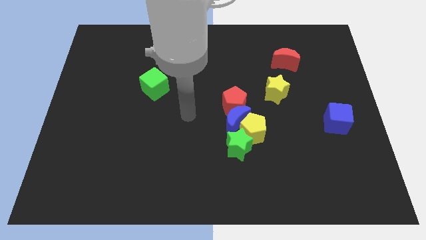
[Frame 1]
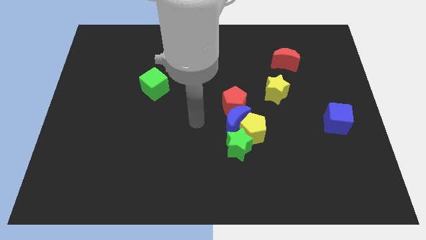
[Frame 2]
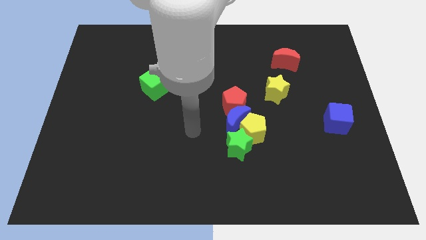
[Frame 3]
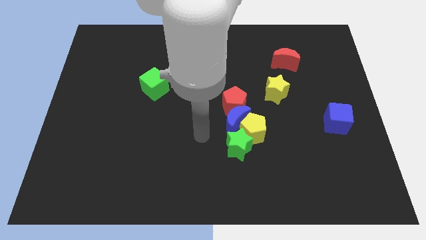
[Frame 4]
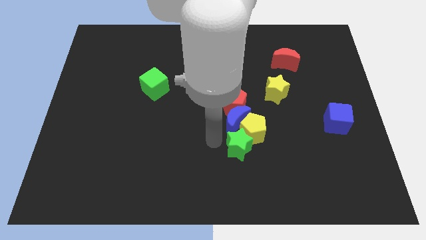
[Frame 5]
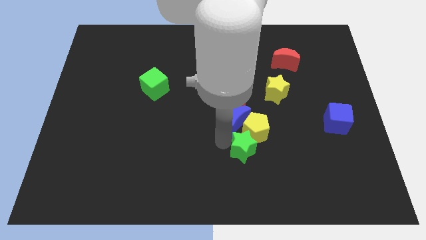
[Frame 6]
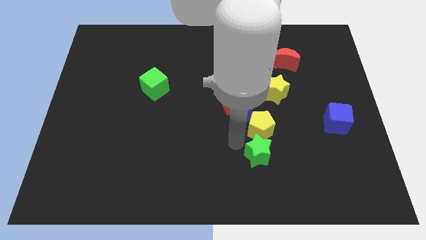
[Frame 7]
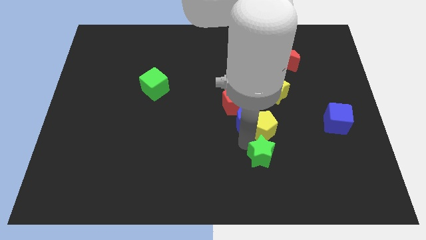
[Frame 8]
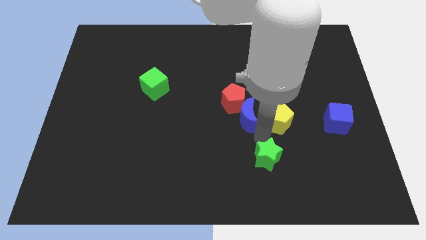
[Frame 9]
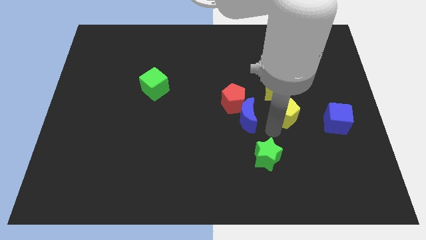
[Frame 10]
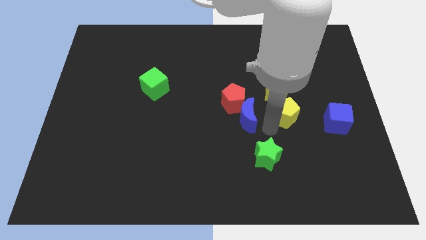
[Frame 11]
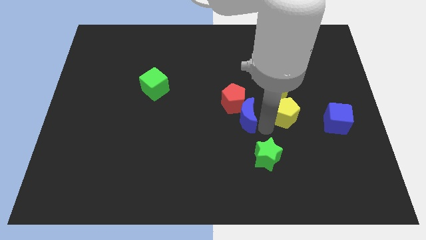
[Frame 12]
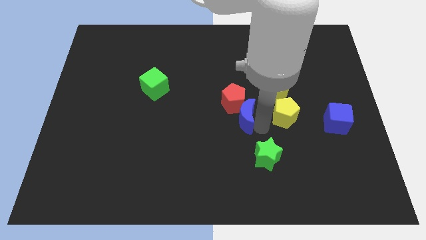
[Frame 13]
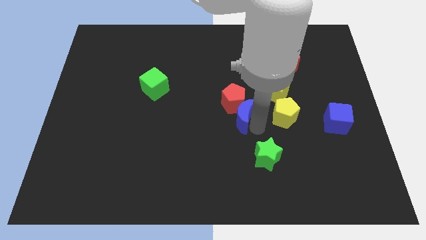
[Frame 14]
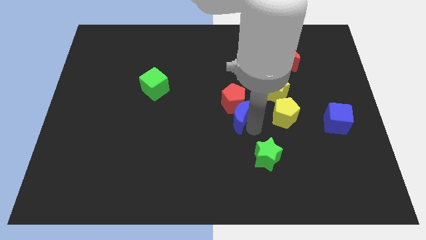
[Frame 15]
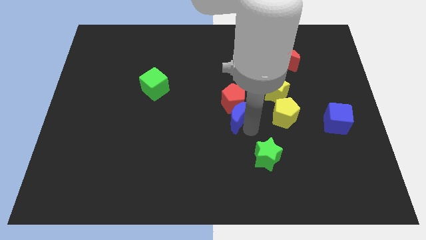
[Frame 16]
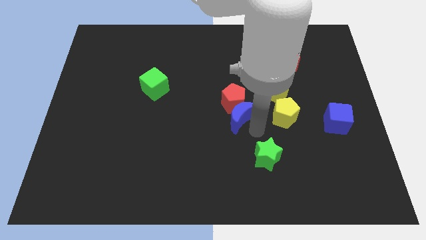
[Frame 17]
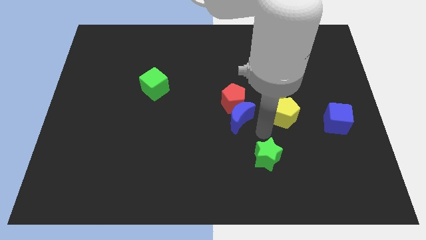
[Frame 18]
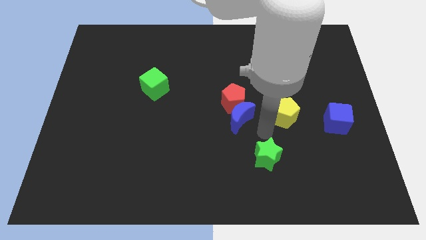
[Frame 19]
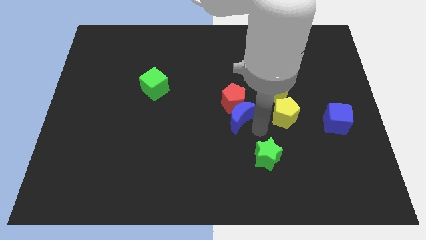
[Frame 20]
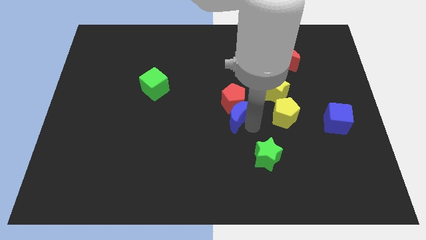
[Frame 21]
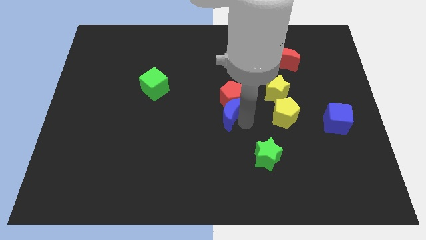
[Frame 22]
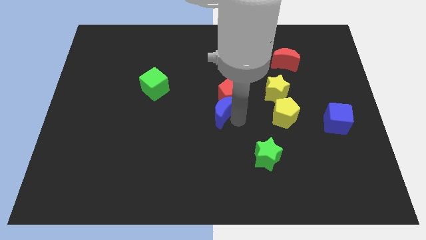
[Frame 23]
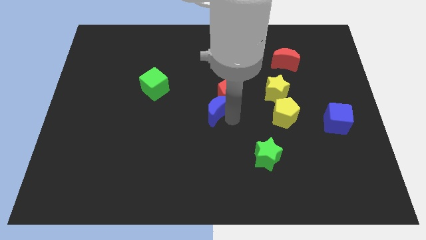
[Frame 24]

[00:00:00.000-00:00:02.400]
pull the blue moon apart from the group of blocks

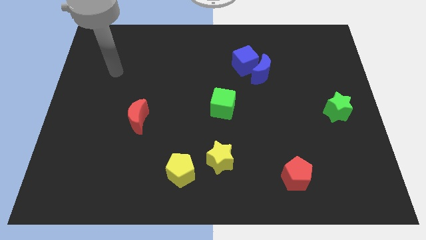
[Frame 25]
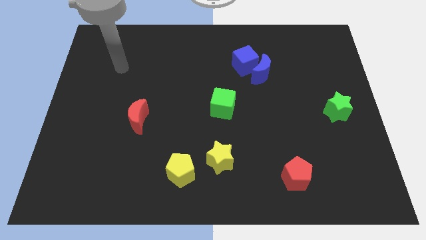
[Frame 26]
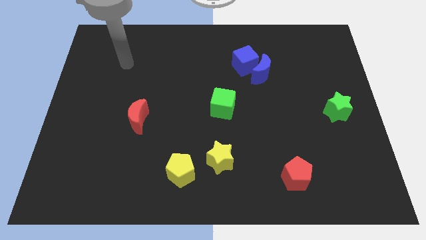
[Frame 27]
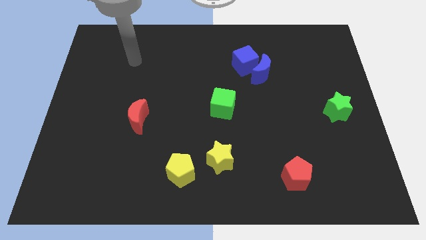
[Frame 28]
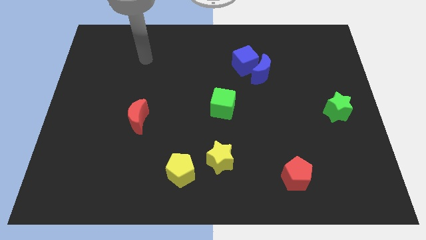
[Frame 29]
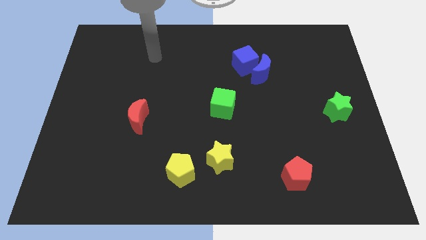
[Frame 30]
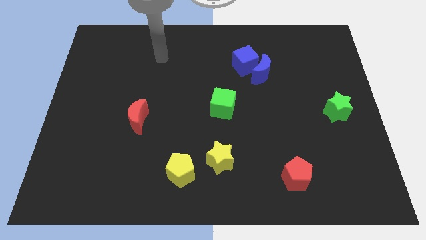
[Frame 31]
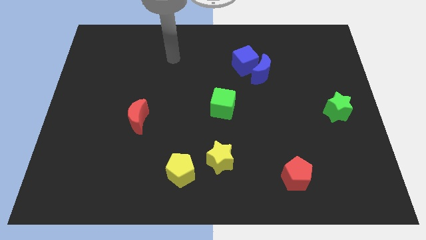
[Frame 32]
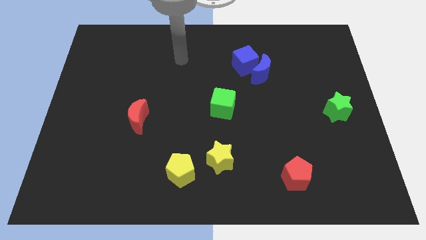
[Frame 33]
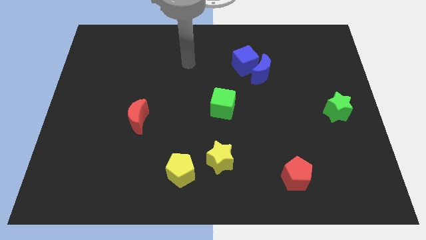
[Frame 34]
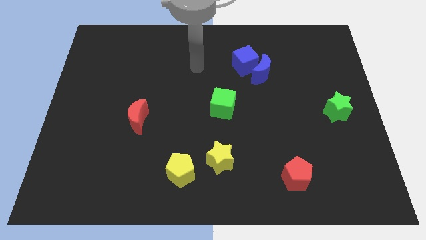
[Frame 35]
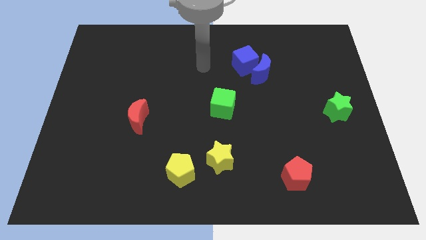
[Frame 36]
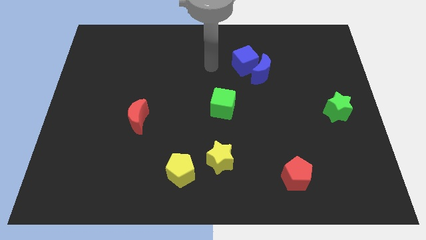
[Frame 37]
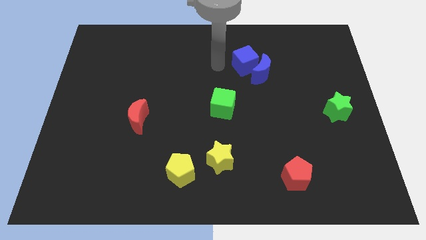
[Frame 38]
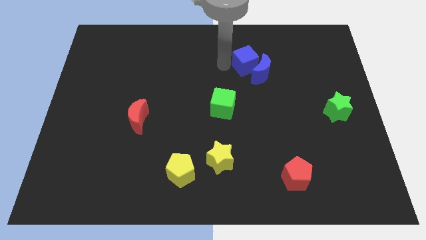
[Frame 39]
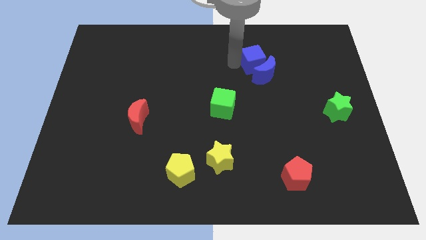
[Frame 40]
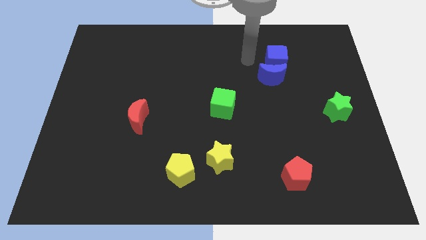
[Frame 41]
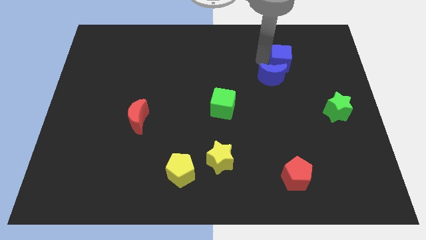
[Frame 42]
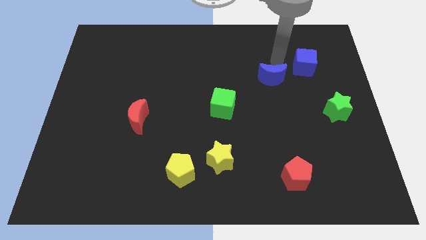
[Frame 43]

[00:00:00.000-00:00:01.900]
separate the blue moon from the blue cube

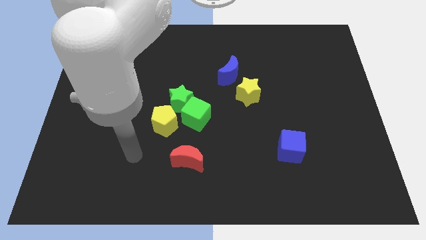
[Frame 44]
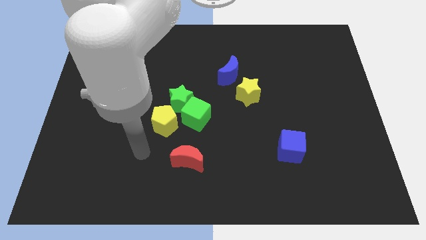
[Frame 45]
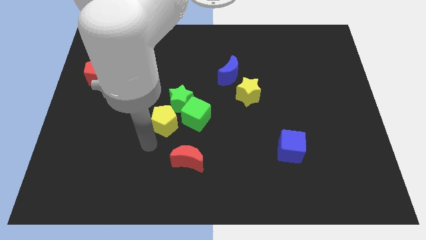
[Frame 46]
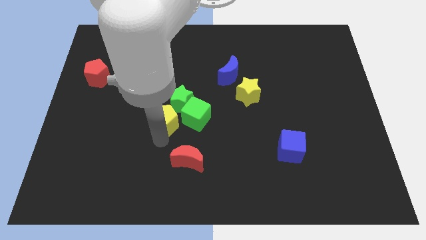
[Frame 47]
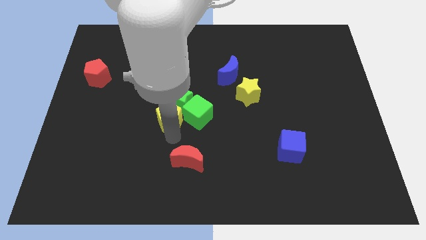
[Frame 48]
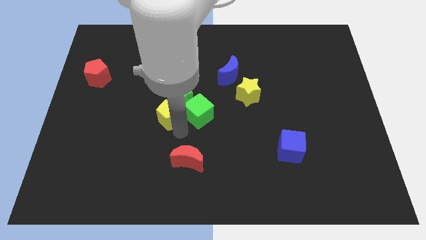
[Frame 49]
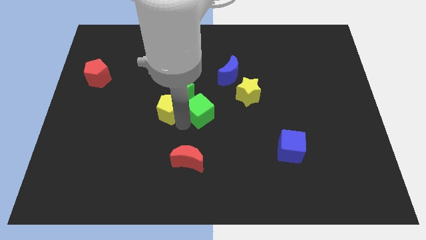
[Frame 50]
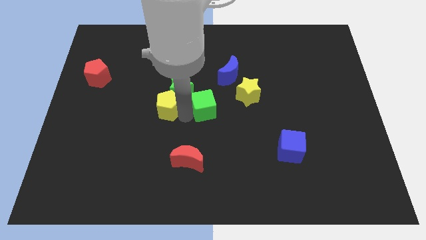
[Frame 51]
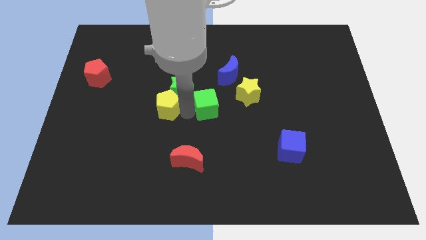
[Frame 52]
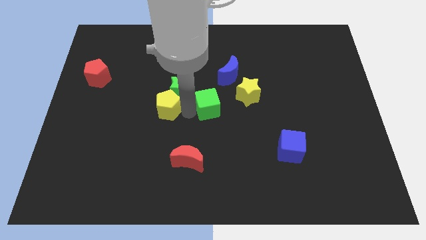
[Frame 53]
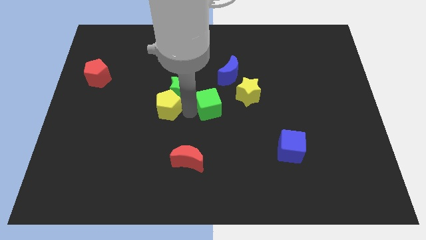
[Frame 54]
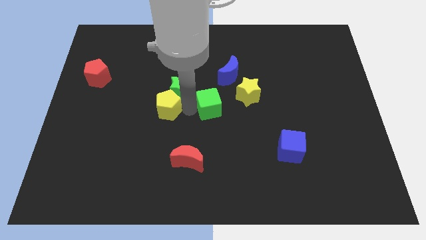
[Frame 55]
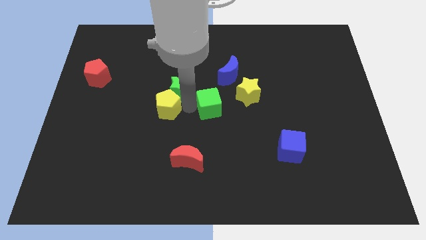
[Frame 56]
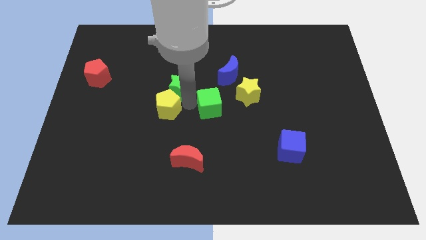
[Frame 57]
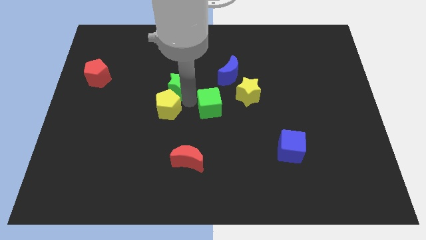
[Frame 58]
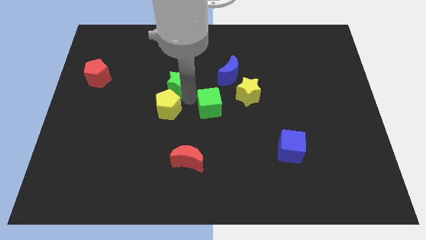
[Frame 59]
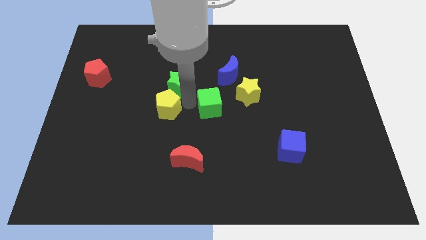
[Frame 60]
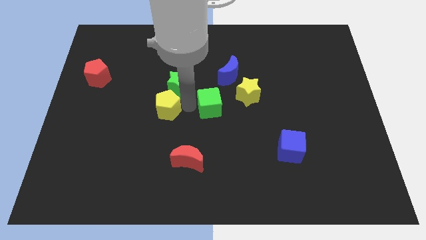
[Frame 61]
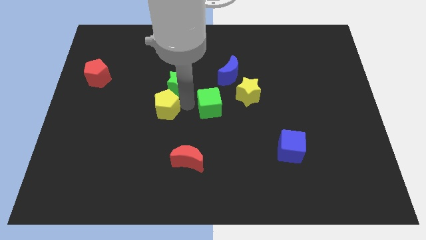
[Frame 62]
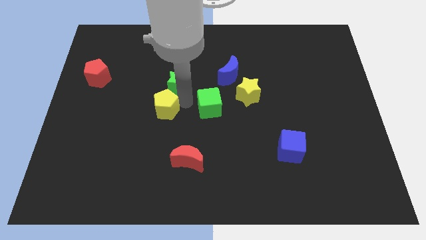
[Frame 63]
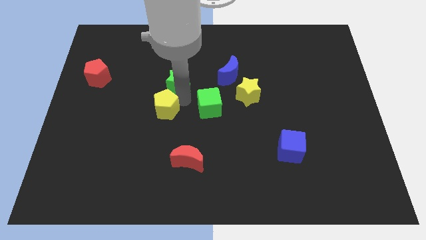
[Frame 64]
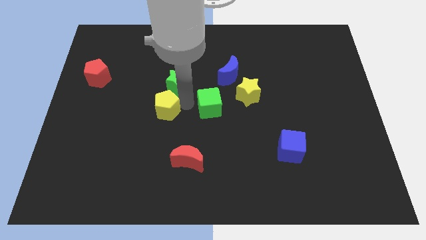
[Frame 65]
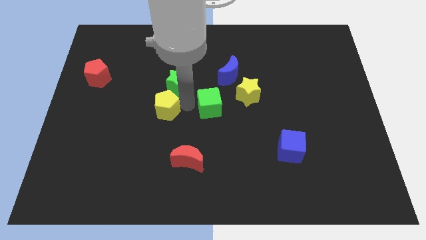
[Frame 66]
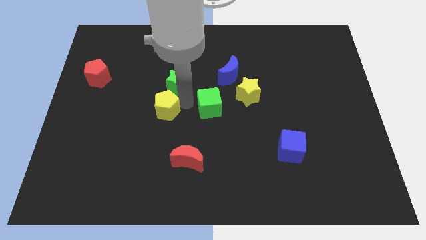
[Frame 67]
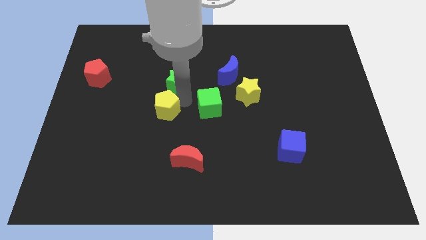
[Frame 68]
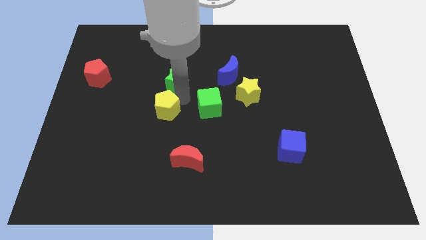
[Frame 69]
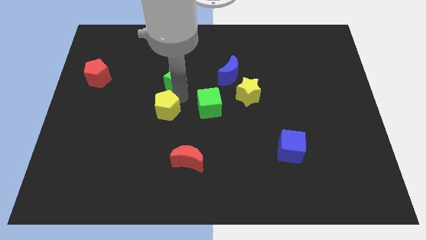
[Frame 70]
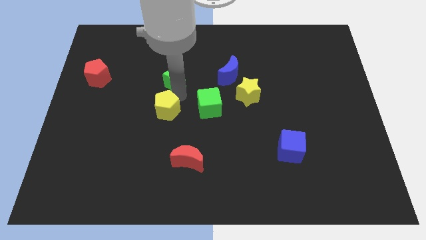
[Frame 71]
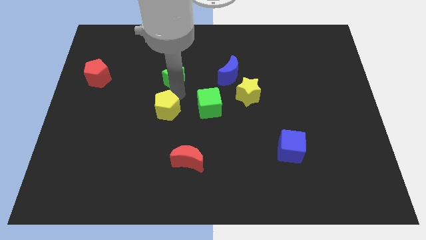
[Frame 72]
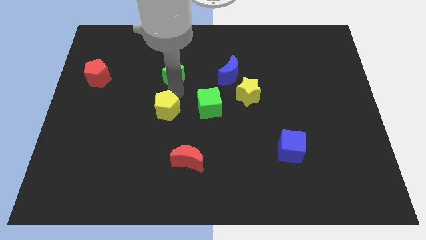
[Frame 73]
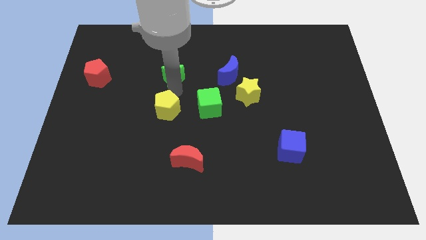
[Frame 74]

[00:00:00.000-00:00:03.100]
pull the green star apart from the green cube and yellow pentagon

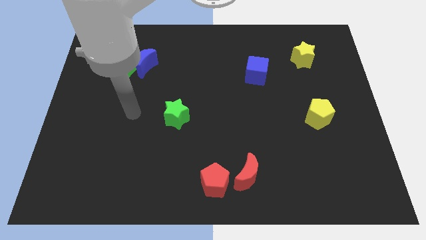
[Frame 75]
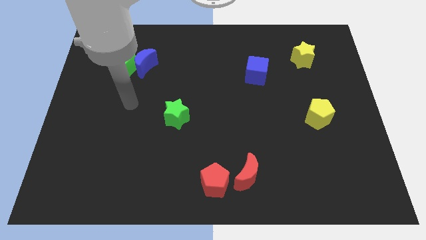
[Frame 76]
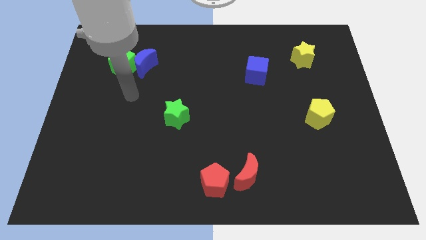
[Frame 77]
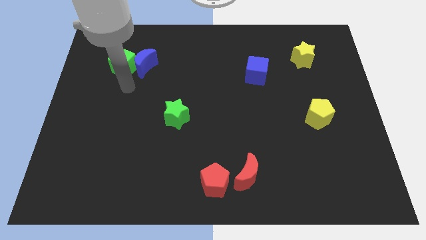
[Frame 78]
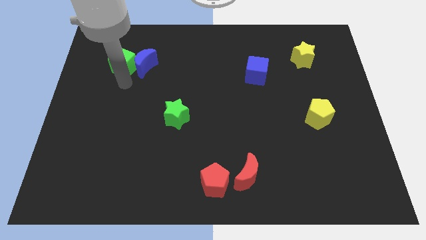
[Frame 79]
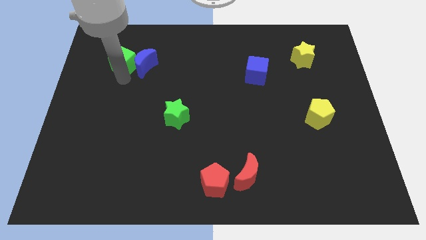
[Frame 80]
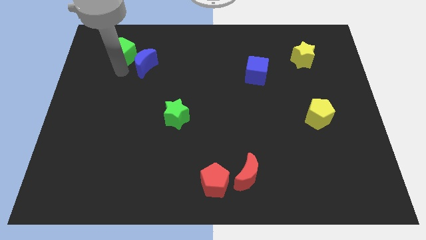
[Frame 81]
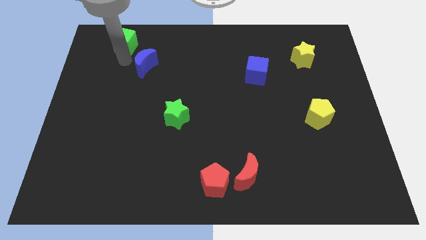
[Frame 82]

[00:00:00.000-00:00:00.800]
separate the blue moon from the green cube

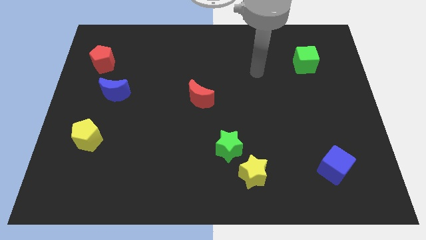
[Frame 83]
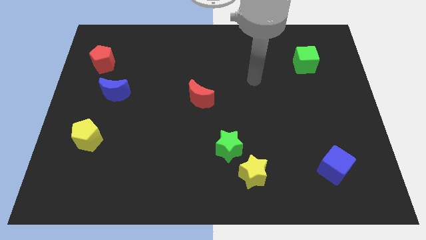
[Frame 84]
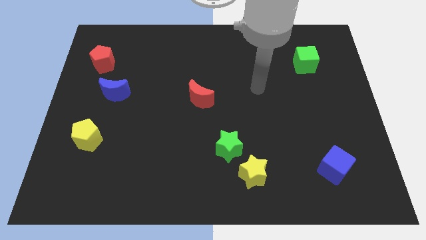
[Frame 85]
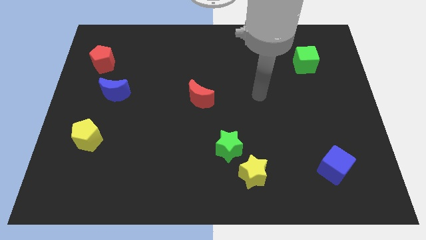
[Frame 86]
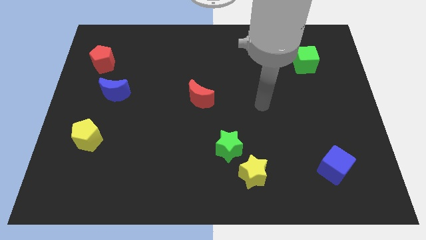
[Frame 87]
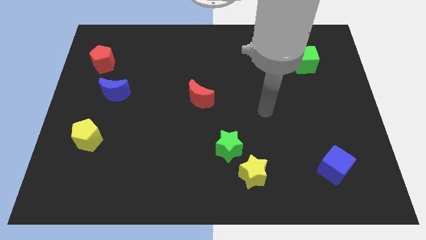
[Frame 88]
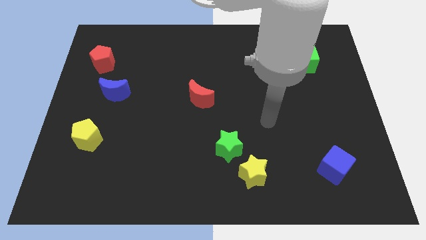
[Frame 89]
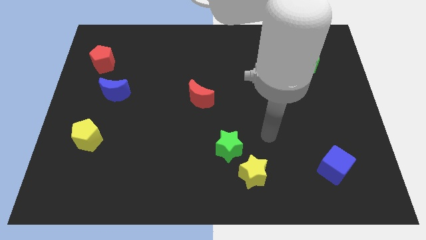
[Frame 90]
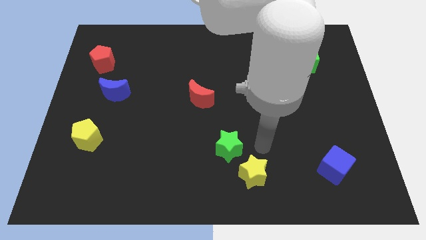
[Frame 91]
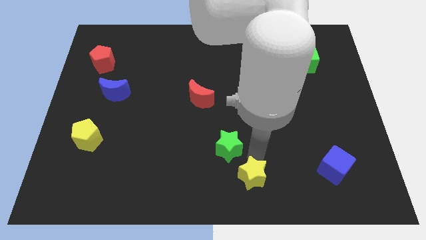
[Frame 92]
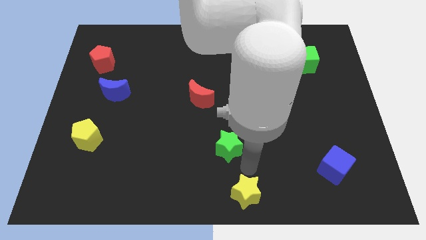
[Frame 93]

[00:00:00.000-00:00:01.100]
separate the green star from the yellow star
